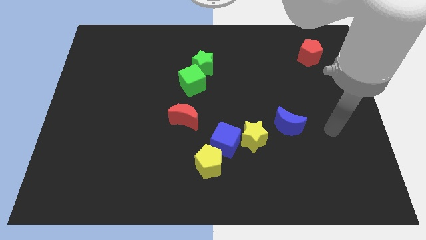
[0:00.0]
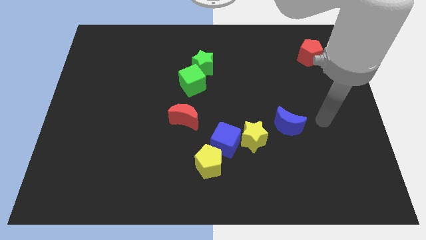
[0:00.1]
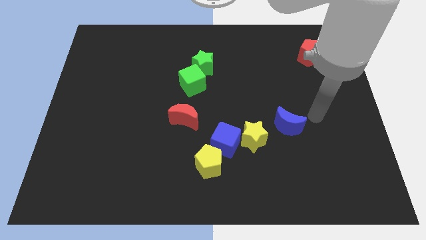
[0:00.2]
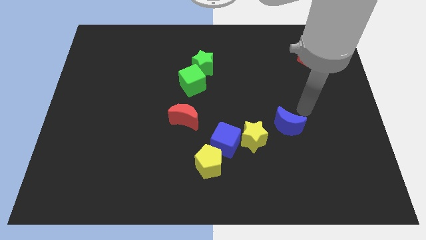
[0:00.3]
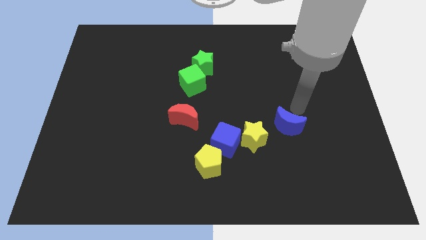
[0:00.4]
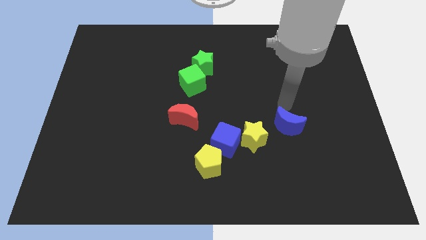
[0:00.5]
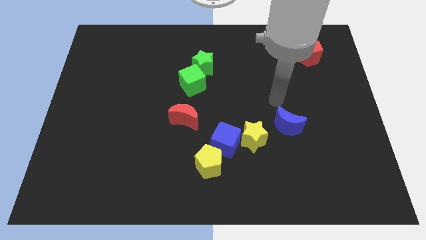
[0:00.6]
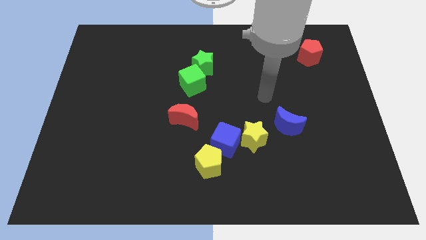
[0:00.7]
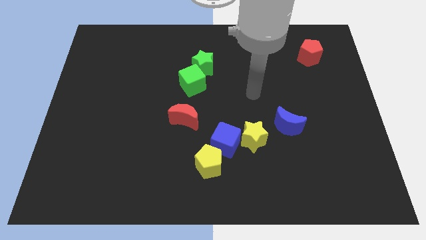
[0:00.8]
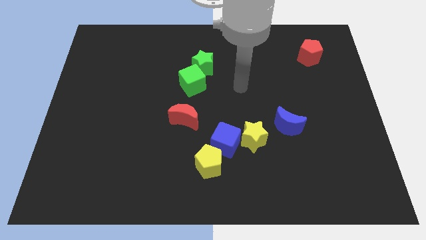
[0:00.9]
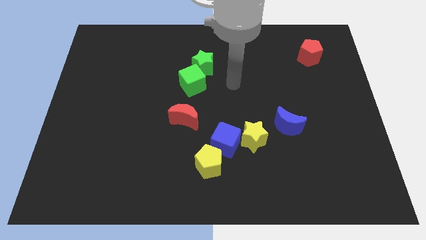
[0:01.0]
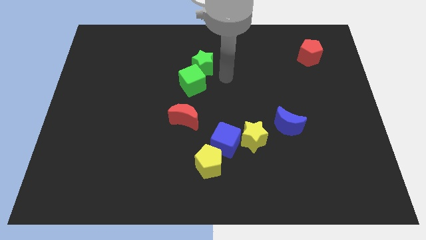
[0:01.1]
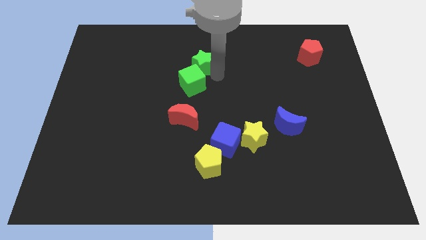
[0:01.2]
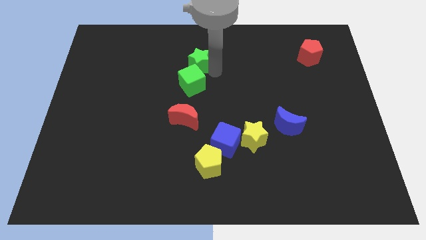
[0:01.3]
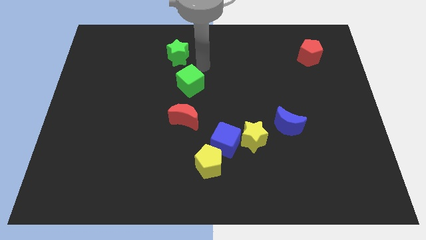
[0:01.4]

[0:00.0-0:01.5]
separate the green cube from the green star

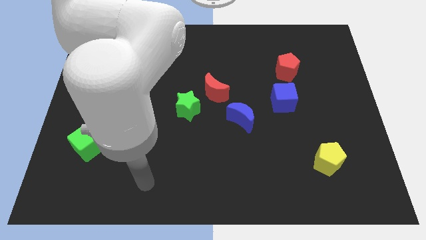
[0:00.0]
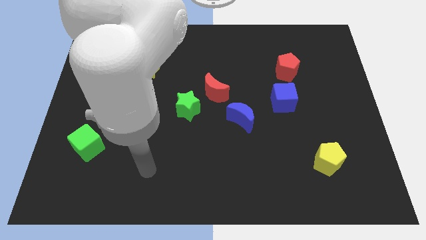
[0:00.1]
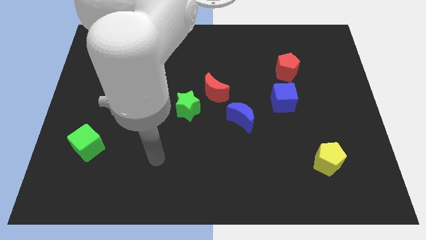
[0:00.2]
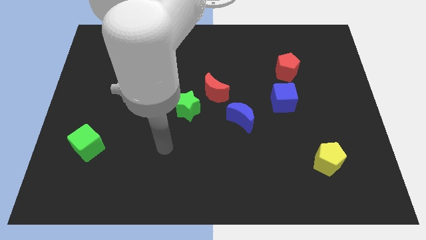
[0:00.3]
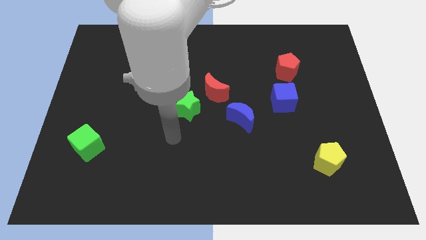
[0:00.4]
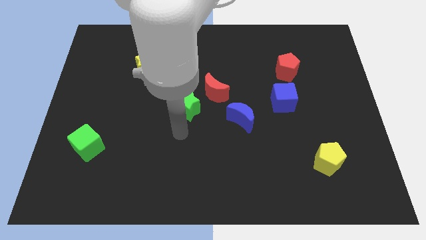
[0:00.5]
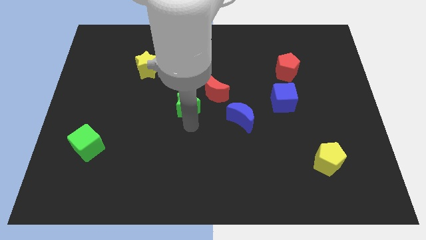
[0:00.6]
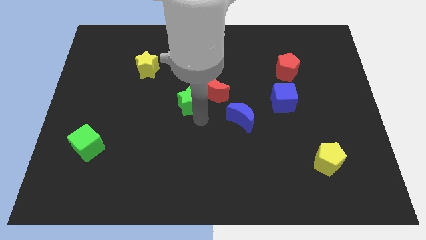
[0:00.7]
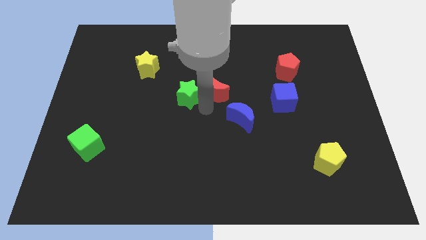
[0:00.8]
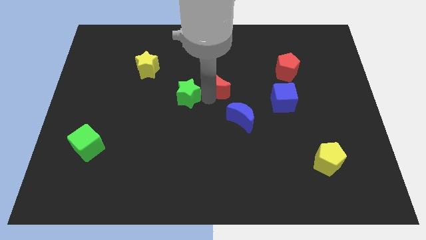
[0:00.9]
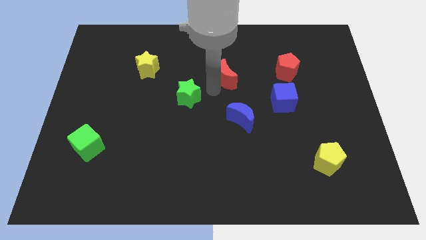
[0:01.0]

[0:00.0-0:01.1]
pull the green star apart from the red moon

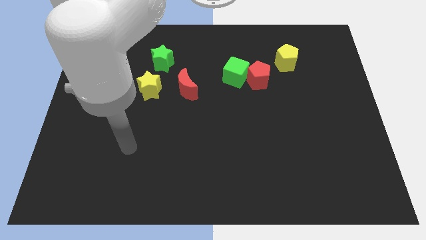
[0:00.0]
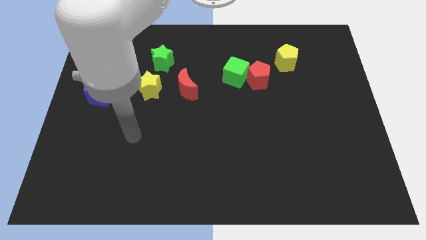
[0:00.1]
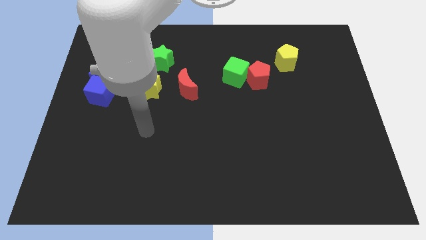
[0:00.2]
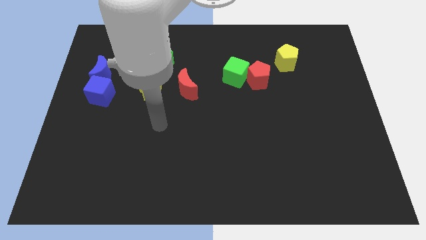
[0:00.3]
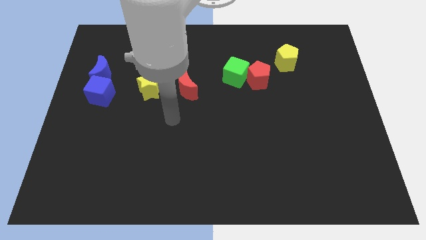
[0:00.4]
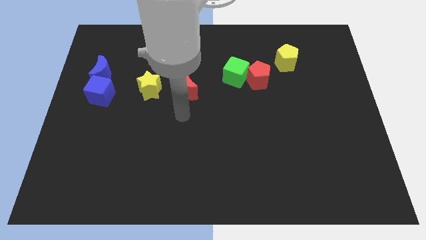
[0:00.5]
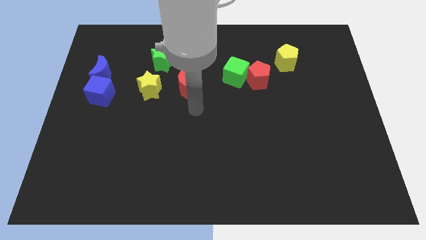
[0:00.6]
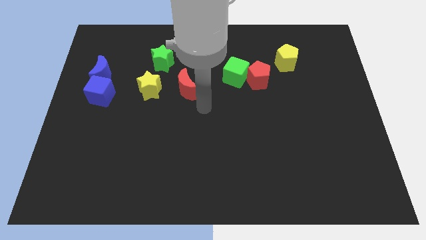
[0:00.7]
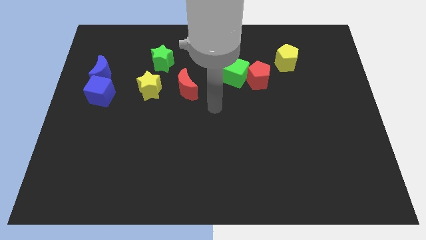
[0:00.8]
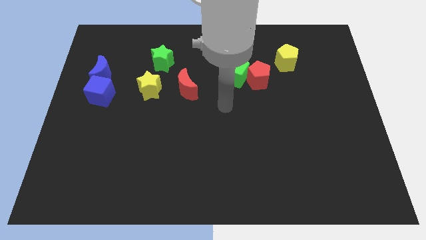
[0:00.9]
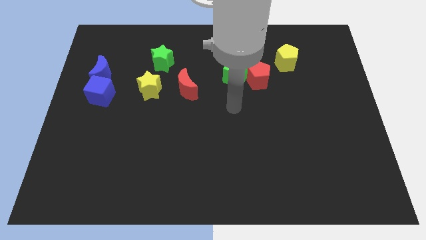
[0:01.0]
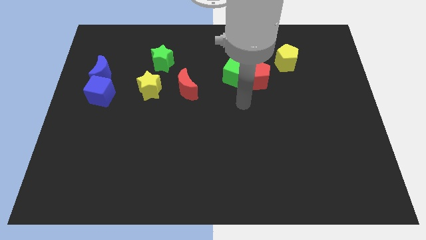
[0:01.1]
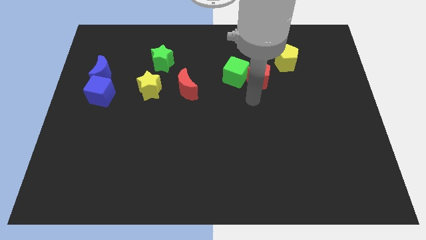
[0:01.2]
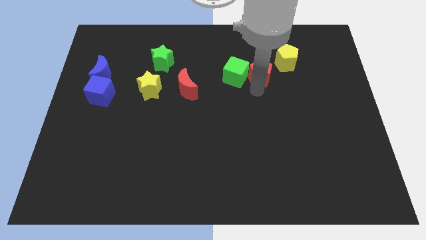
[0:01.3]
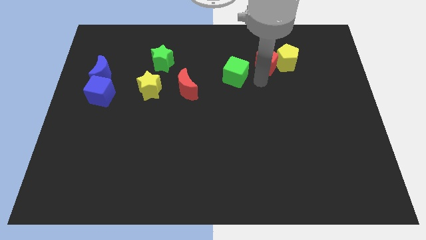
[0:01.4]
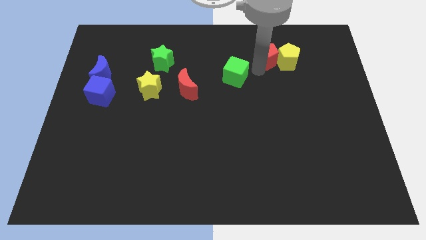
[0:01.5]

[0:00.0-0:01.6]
separate the green cube from the red pentagon

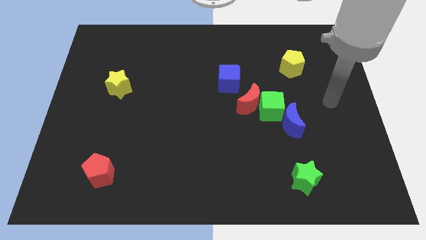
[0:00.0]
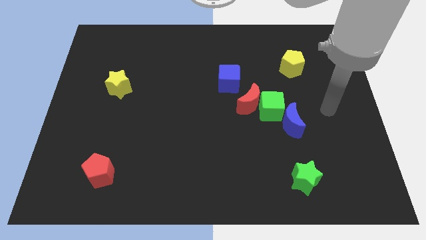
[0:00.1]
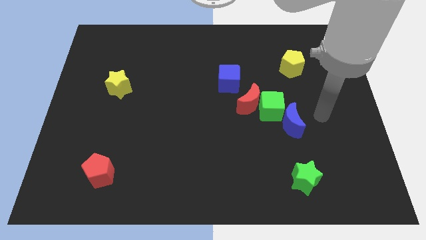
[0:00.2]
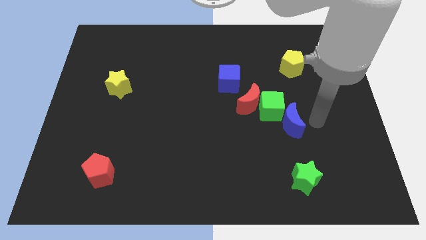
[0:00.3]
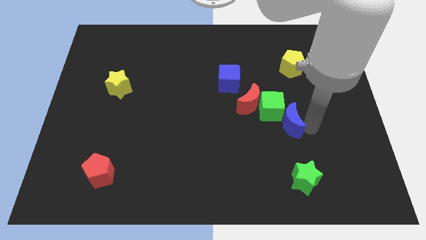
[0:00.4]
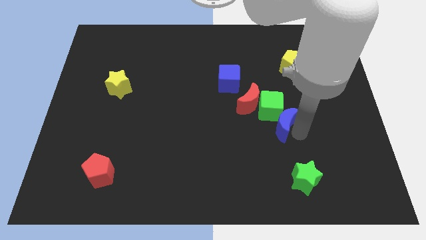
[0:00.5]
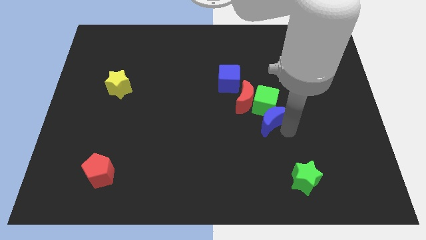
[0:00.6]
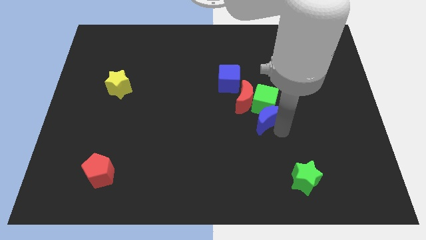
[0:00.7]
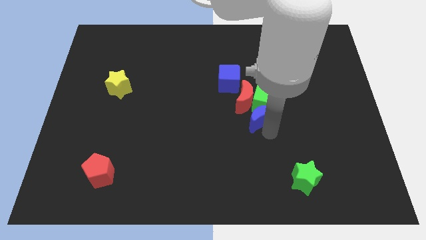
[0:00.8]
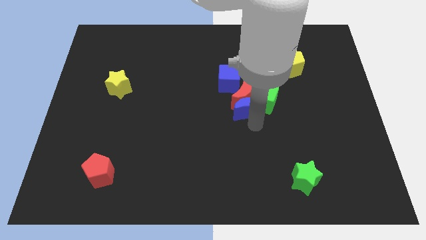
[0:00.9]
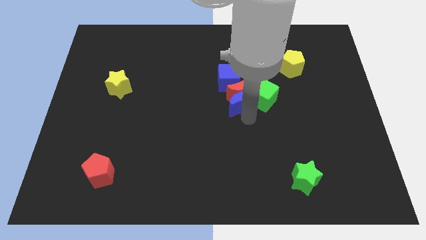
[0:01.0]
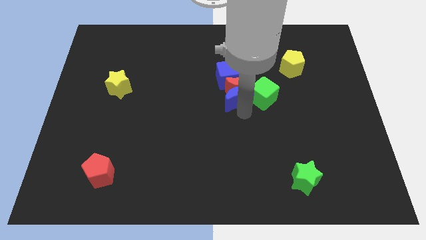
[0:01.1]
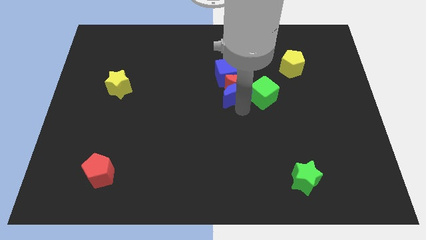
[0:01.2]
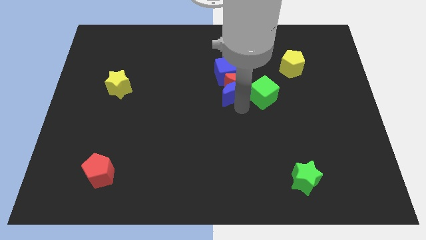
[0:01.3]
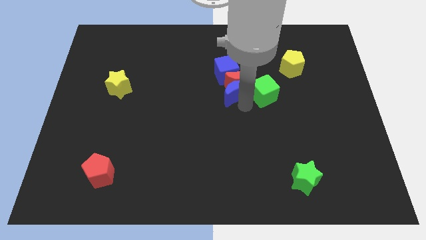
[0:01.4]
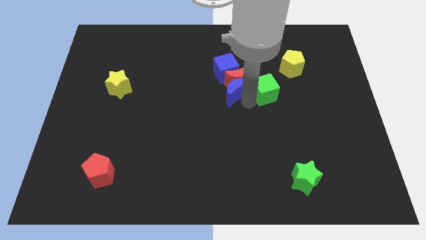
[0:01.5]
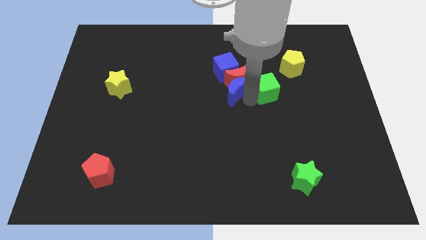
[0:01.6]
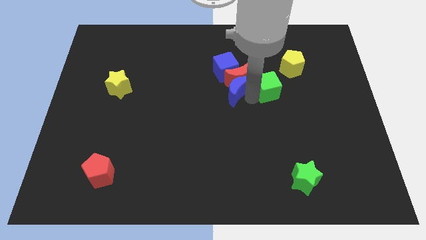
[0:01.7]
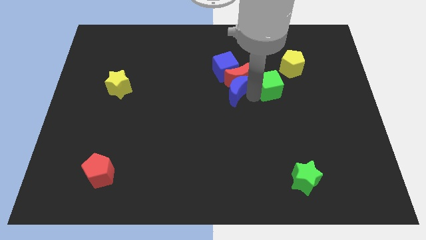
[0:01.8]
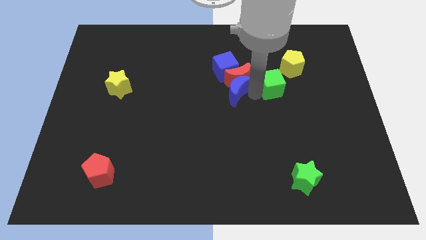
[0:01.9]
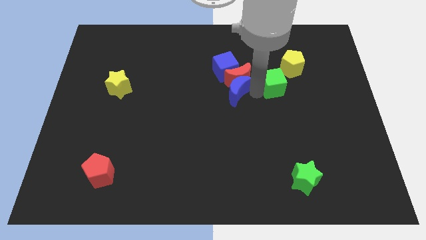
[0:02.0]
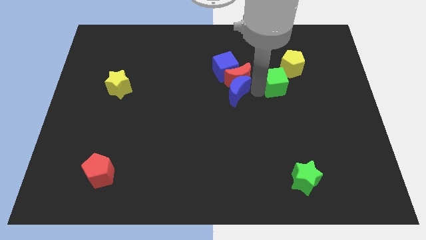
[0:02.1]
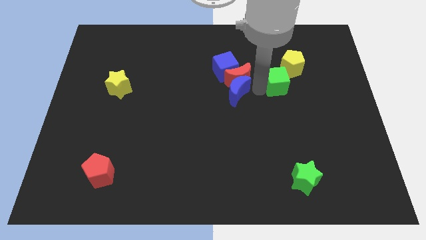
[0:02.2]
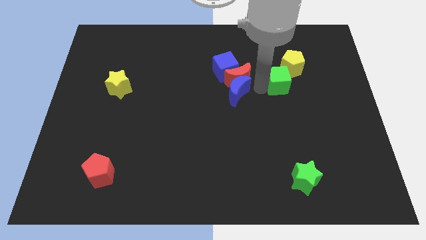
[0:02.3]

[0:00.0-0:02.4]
move the green cube away from the red moon and blue moon

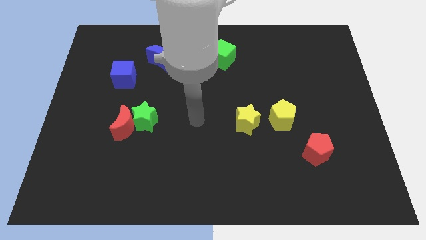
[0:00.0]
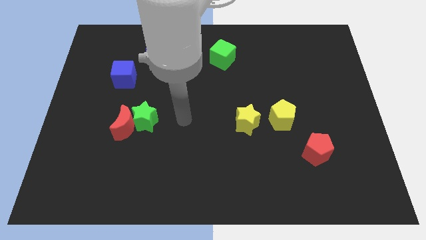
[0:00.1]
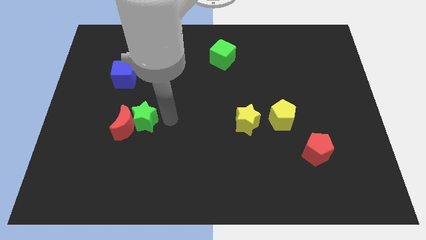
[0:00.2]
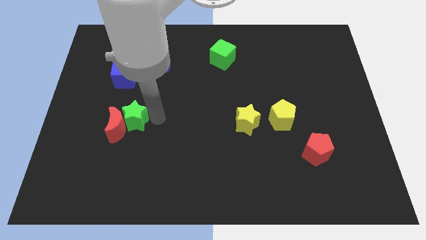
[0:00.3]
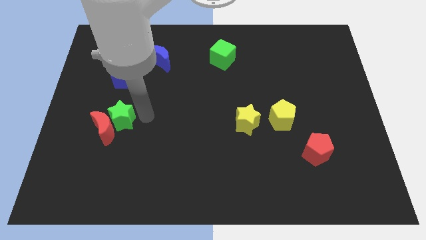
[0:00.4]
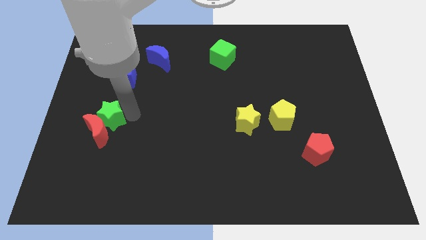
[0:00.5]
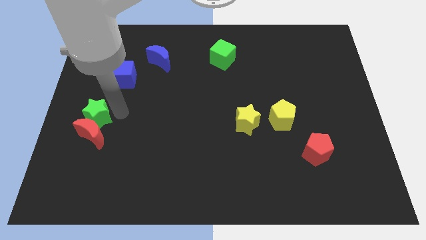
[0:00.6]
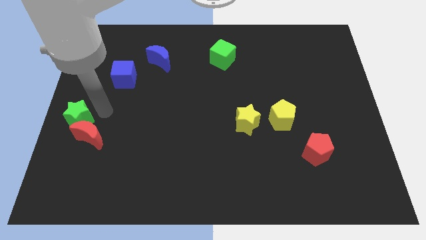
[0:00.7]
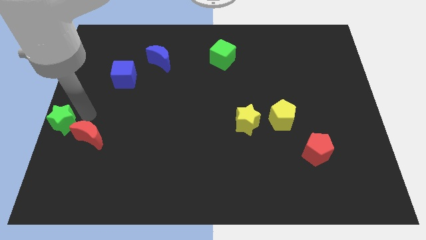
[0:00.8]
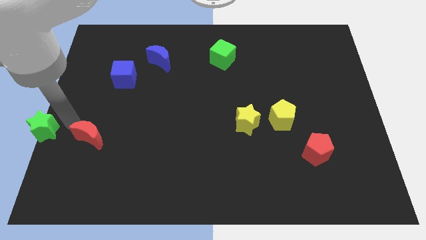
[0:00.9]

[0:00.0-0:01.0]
pull the red moon apart from the green star

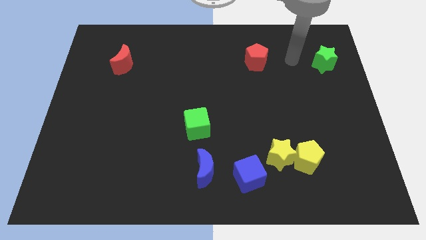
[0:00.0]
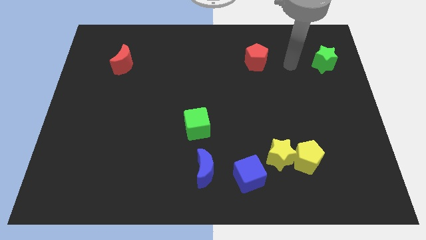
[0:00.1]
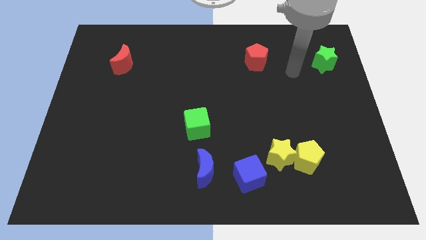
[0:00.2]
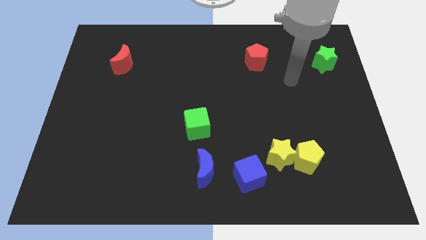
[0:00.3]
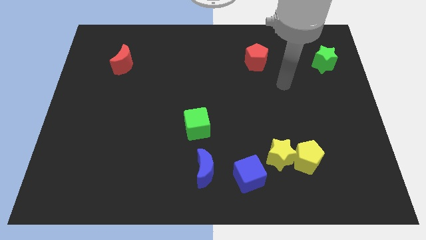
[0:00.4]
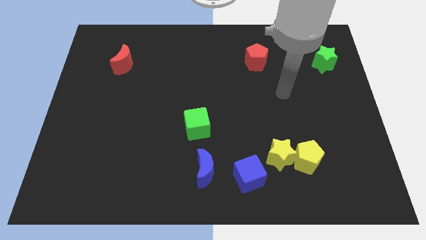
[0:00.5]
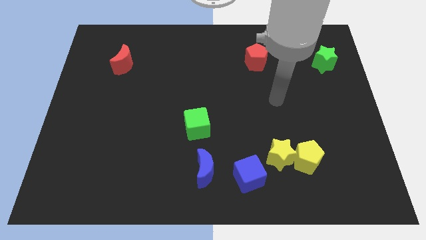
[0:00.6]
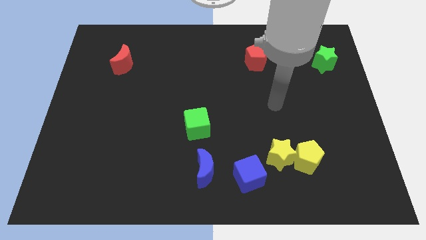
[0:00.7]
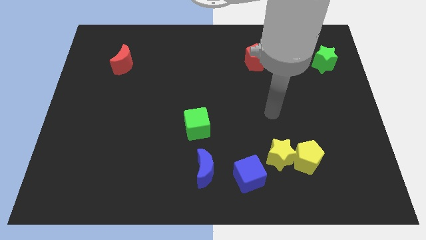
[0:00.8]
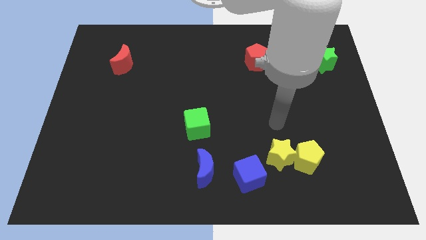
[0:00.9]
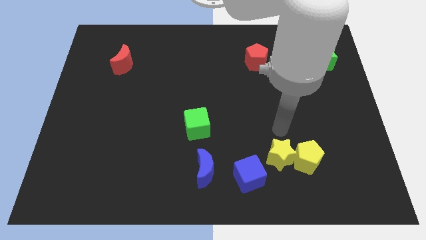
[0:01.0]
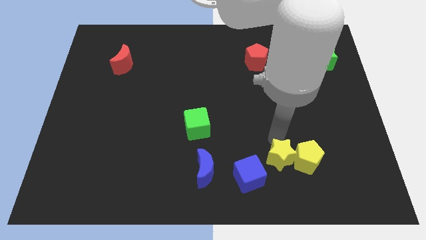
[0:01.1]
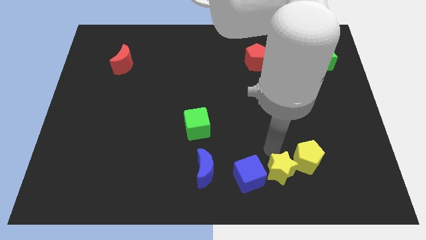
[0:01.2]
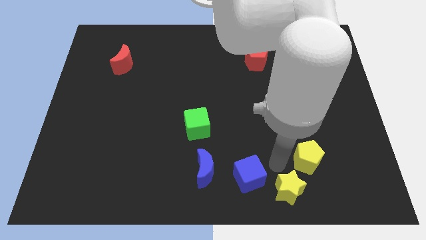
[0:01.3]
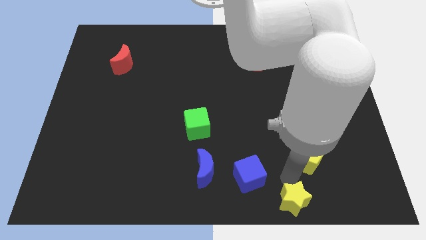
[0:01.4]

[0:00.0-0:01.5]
pull the yellow pentagon apart from the yellow star

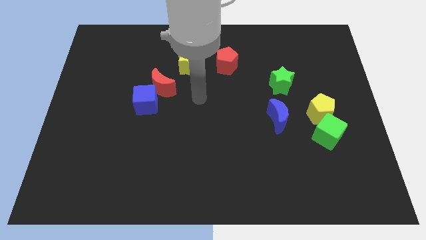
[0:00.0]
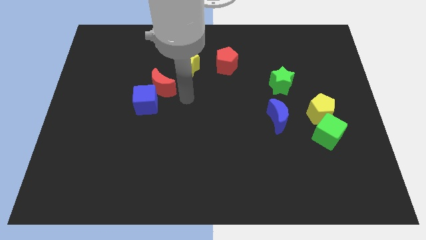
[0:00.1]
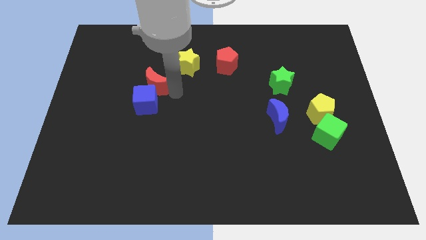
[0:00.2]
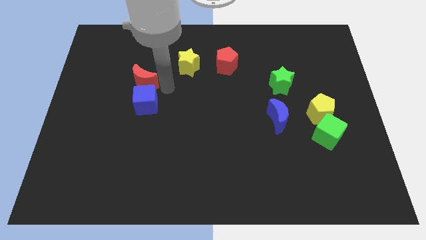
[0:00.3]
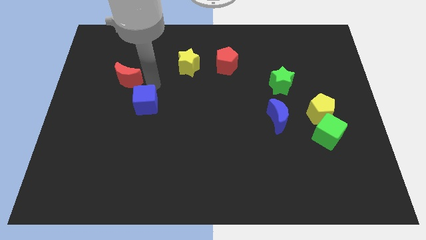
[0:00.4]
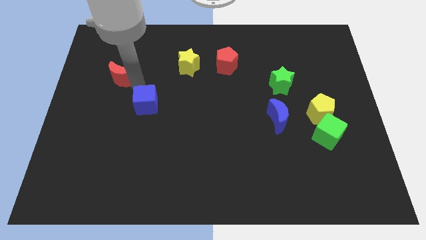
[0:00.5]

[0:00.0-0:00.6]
move the blue cube away from the red moon
